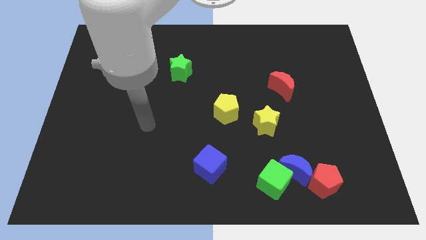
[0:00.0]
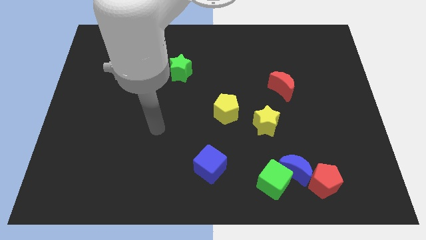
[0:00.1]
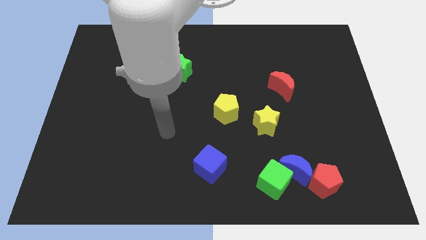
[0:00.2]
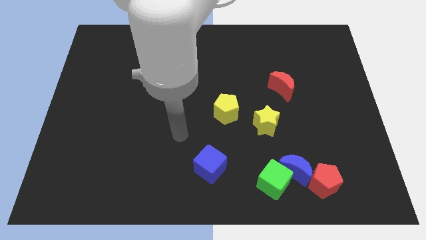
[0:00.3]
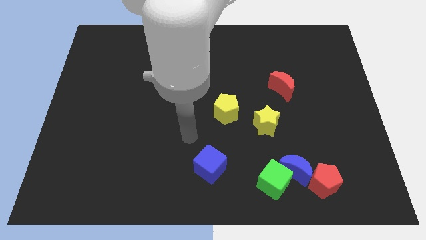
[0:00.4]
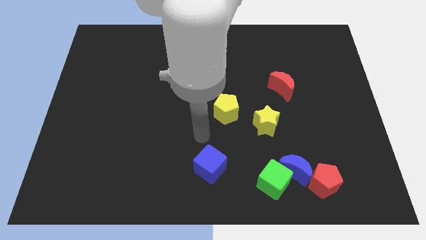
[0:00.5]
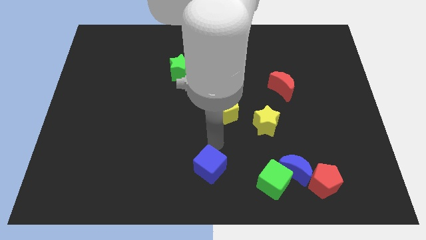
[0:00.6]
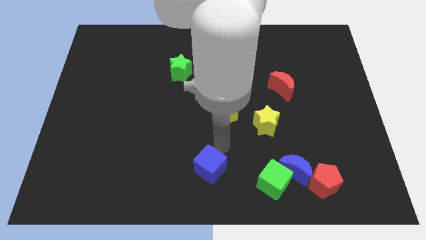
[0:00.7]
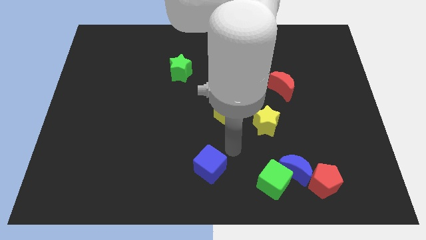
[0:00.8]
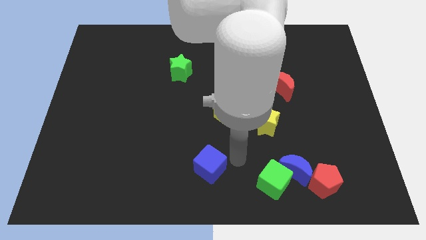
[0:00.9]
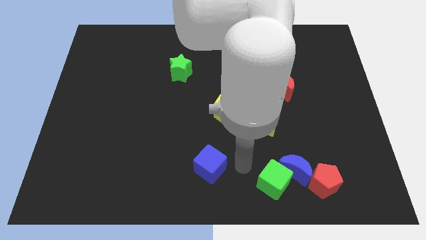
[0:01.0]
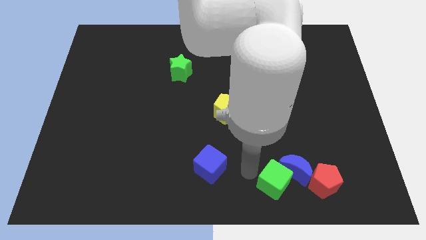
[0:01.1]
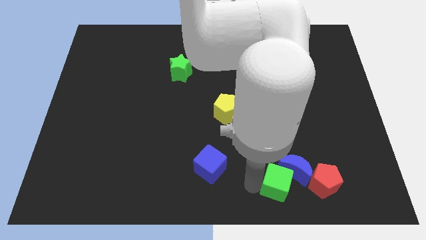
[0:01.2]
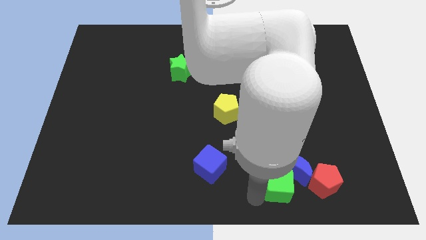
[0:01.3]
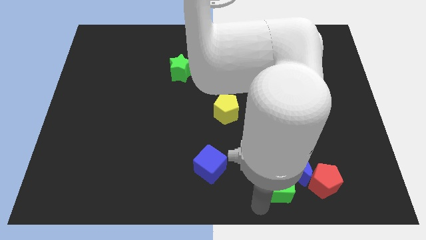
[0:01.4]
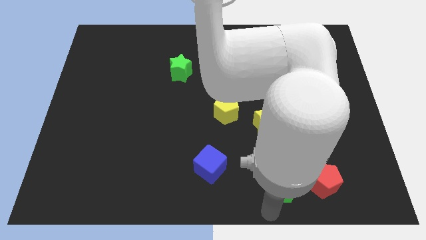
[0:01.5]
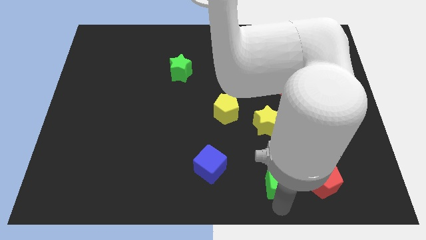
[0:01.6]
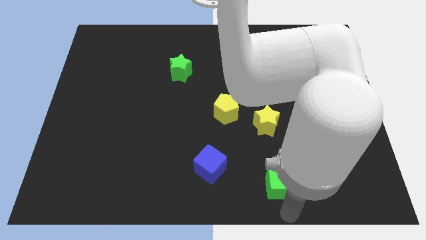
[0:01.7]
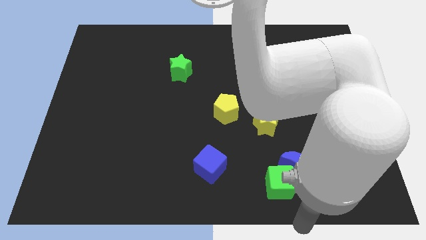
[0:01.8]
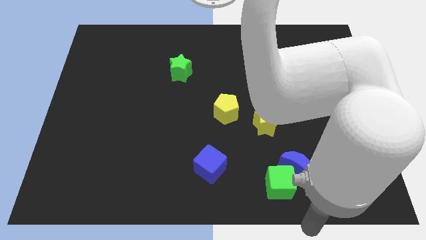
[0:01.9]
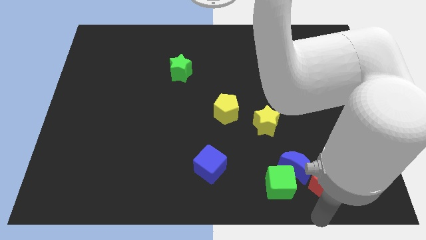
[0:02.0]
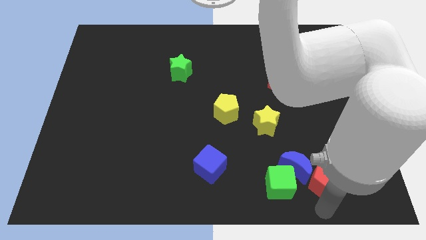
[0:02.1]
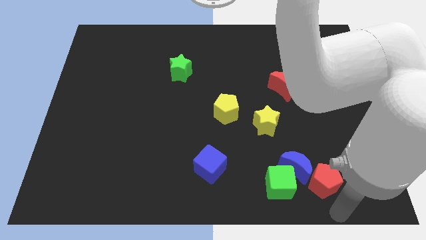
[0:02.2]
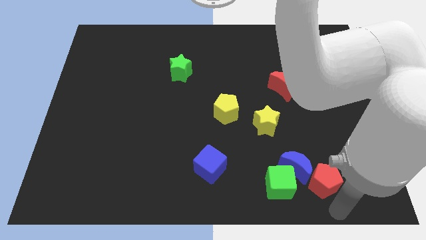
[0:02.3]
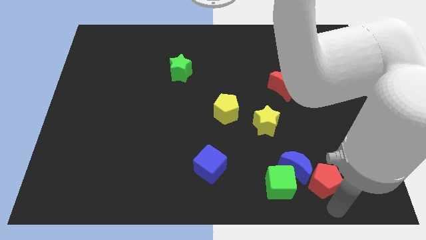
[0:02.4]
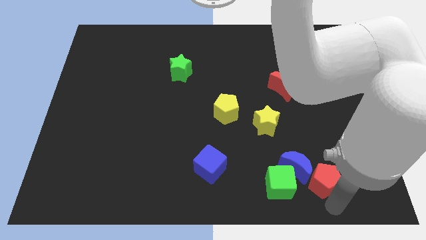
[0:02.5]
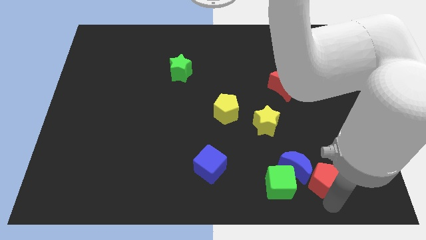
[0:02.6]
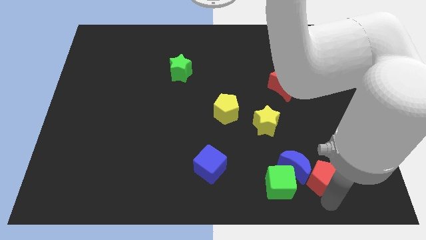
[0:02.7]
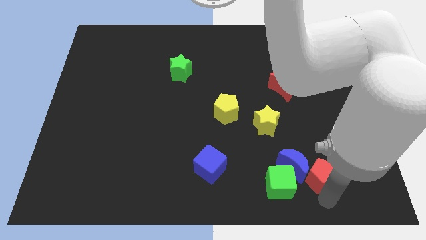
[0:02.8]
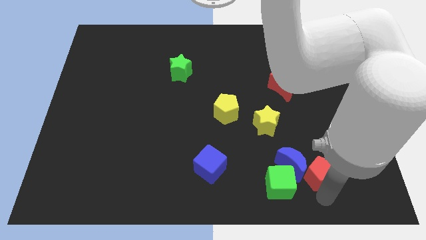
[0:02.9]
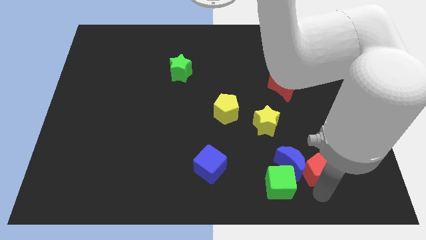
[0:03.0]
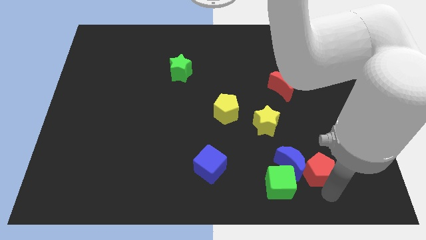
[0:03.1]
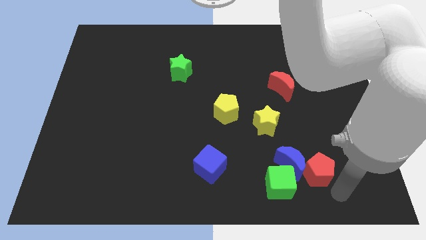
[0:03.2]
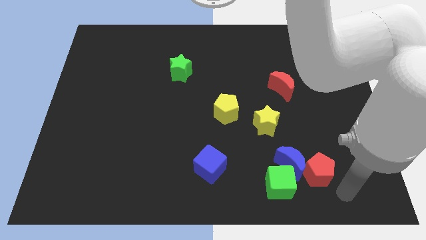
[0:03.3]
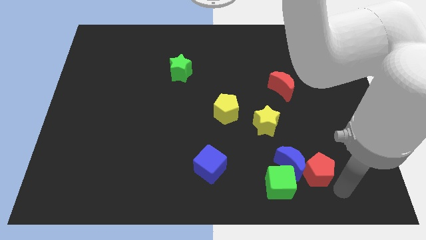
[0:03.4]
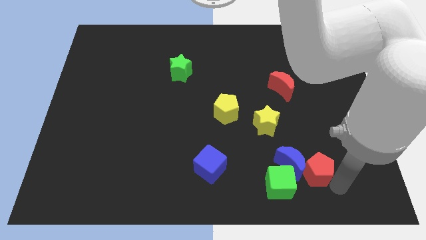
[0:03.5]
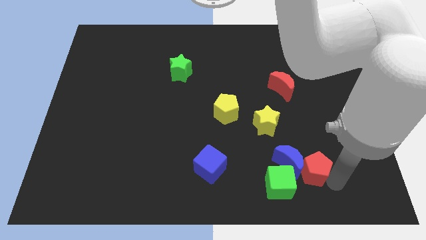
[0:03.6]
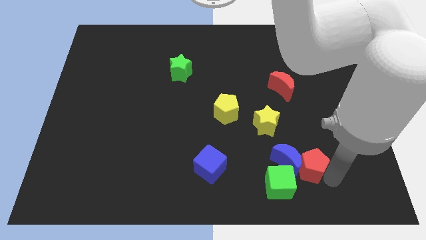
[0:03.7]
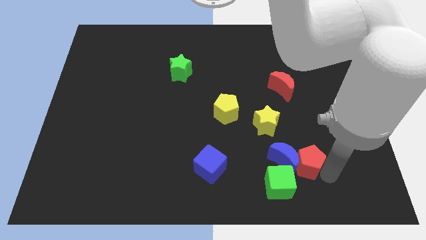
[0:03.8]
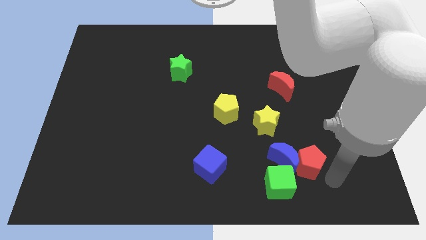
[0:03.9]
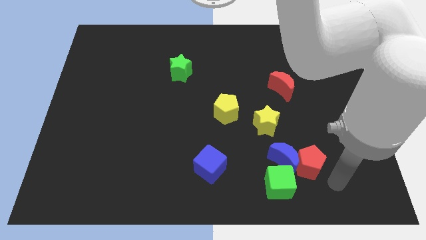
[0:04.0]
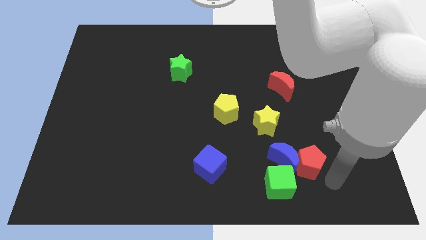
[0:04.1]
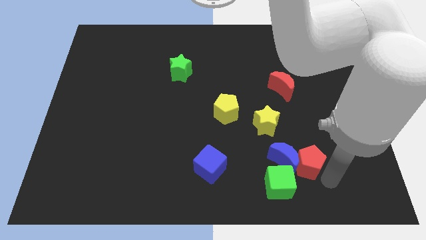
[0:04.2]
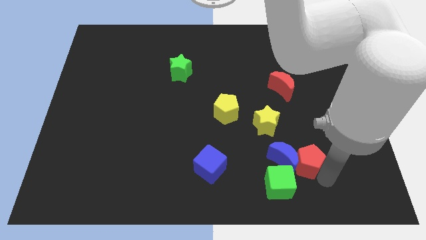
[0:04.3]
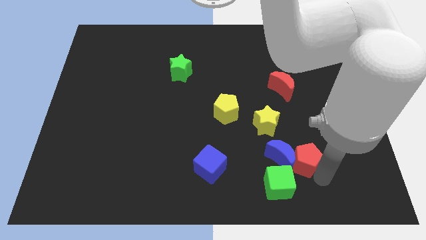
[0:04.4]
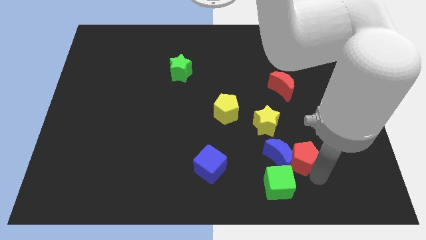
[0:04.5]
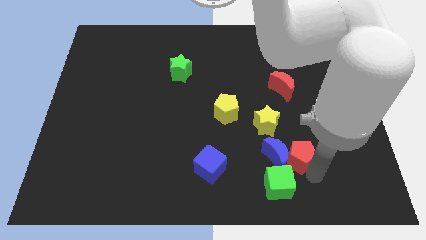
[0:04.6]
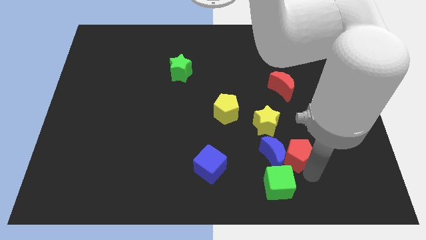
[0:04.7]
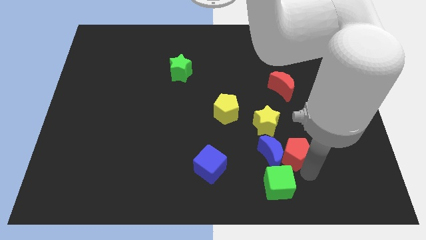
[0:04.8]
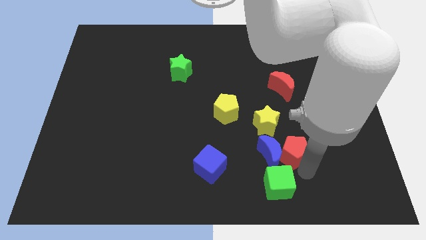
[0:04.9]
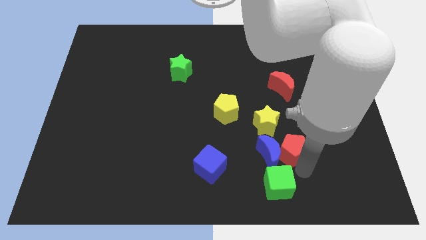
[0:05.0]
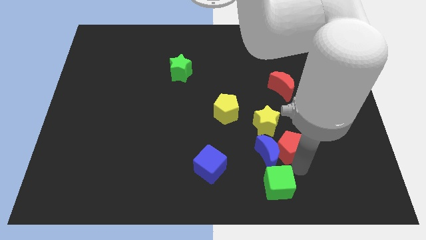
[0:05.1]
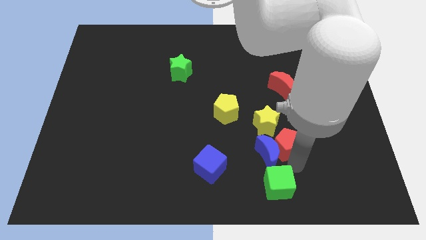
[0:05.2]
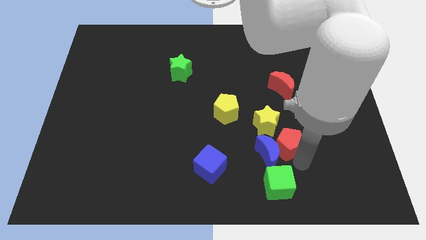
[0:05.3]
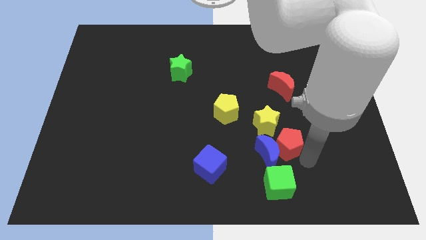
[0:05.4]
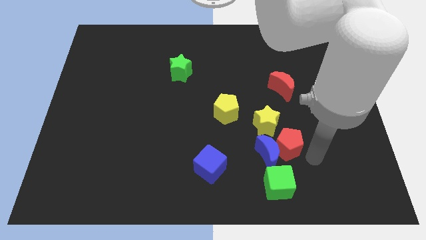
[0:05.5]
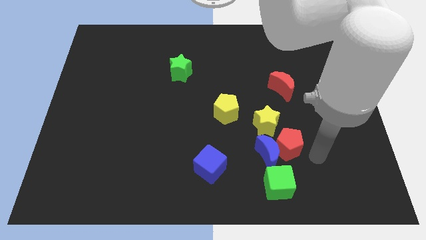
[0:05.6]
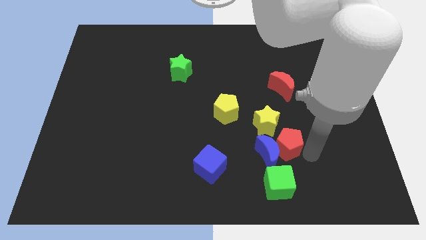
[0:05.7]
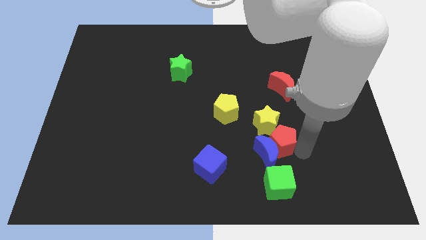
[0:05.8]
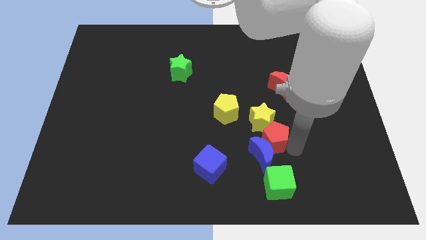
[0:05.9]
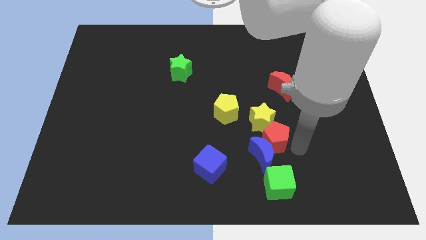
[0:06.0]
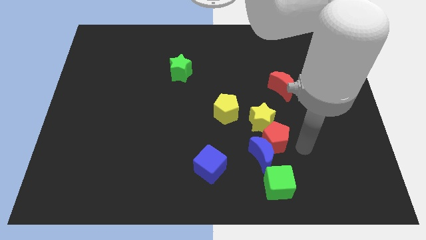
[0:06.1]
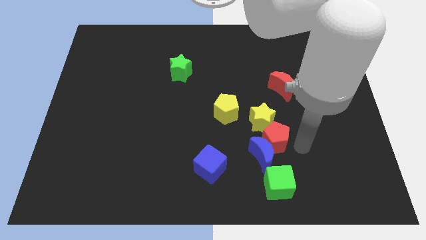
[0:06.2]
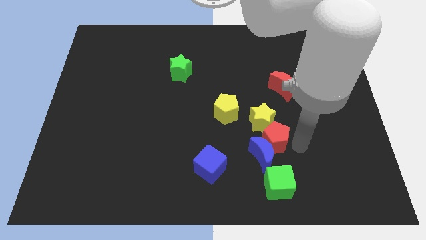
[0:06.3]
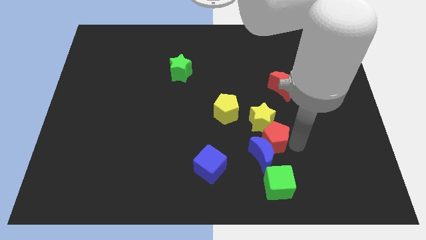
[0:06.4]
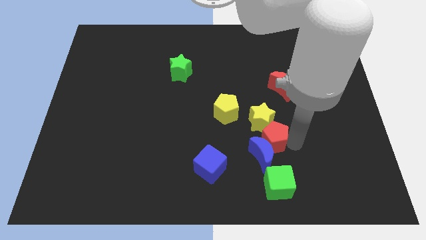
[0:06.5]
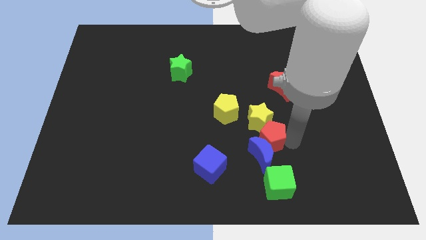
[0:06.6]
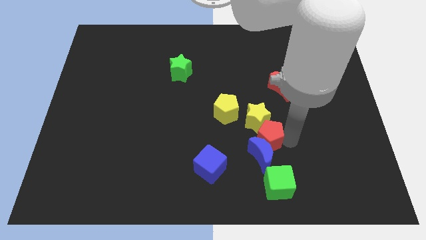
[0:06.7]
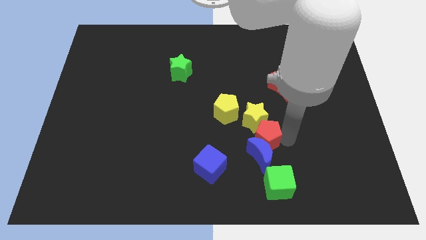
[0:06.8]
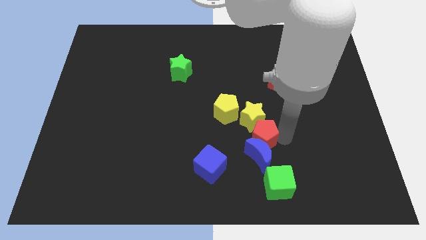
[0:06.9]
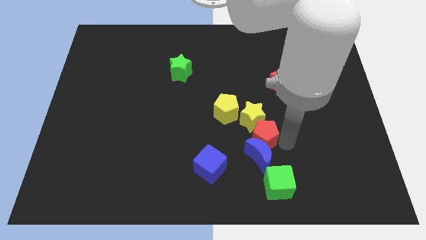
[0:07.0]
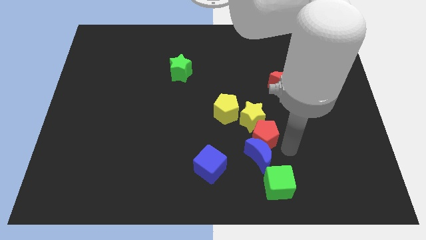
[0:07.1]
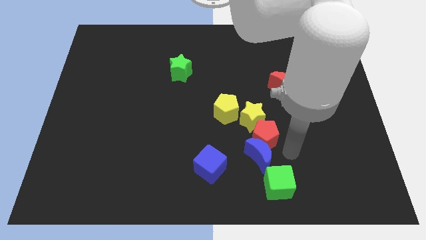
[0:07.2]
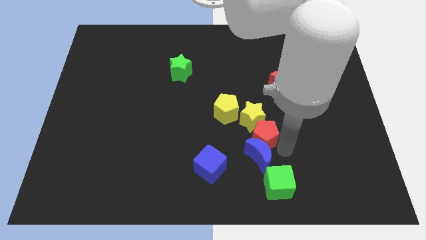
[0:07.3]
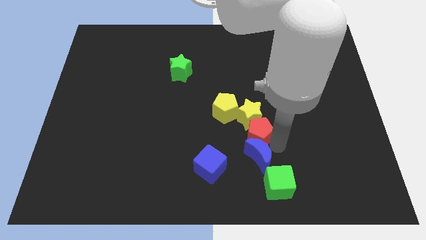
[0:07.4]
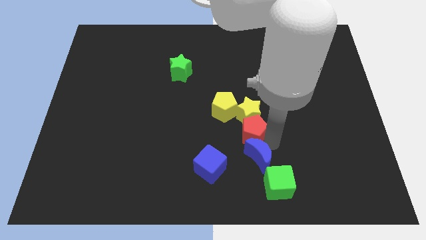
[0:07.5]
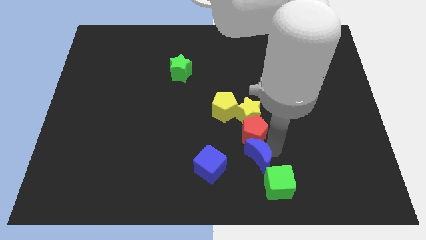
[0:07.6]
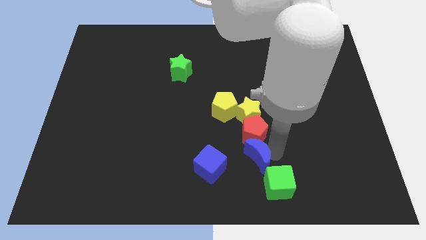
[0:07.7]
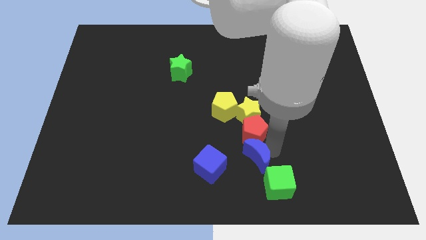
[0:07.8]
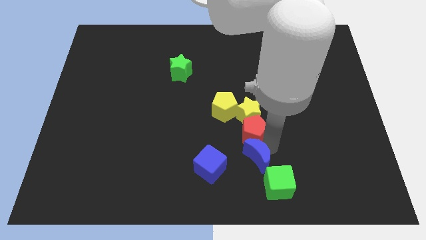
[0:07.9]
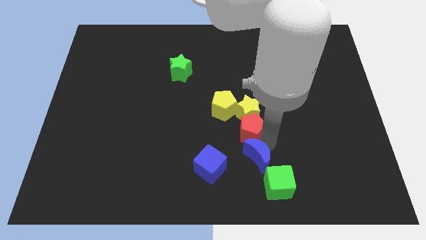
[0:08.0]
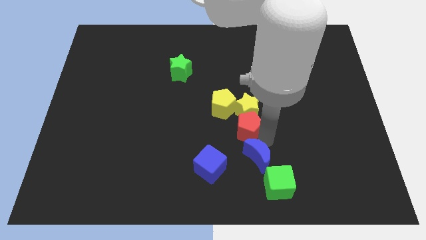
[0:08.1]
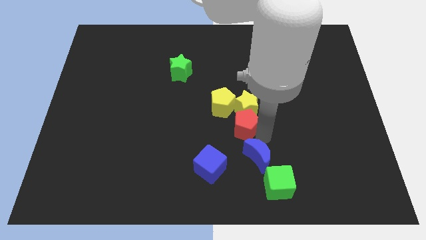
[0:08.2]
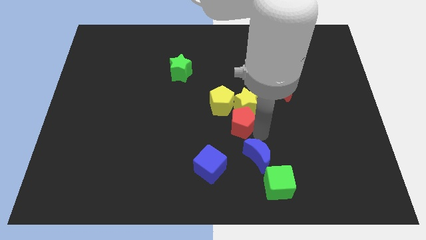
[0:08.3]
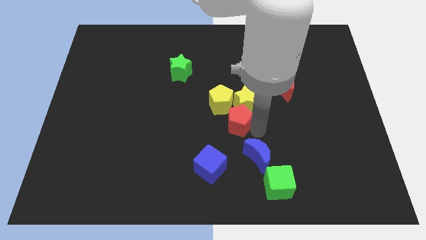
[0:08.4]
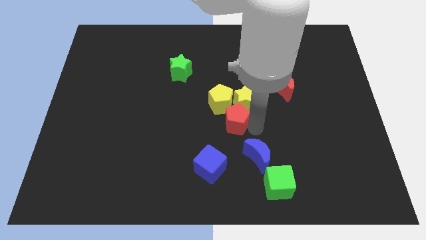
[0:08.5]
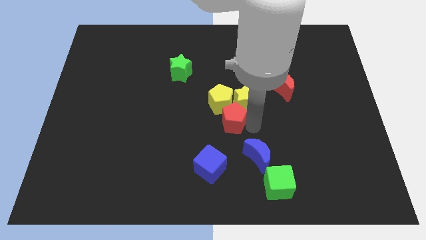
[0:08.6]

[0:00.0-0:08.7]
move the red pentagon towards the yellow pentagon
